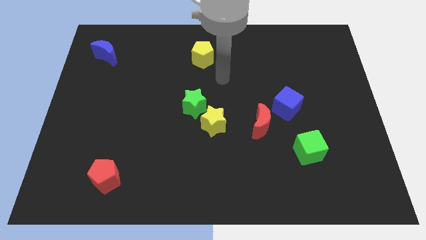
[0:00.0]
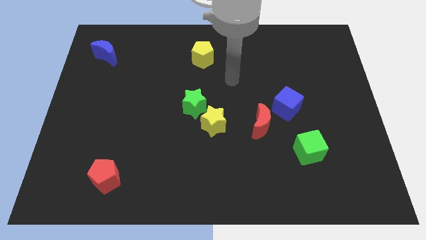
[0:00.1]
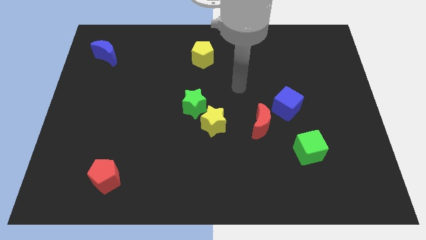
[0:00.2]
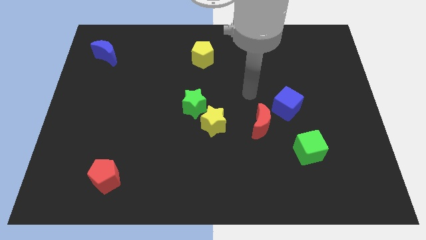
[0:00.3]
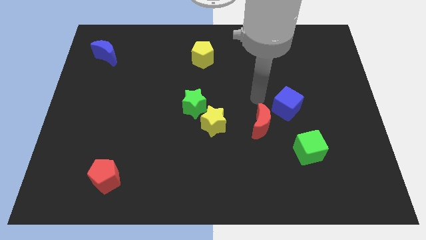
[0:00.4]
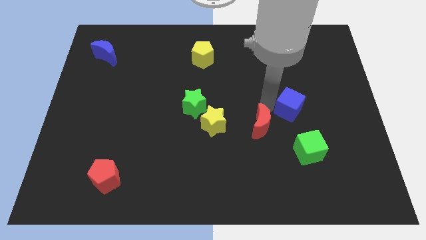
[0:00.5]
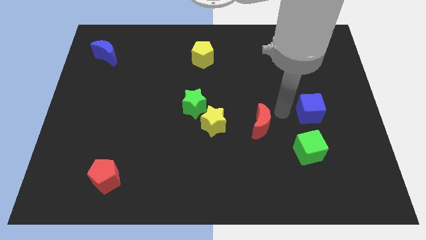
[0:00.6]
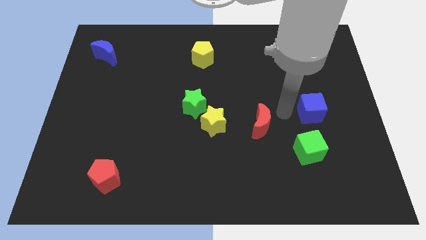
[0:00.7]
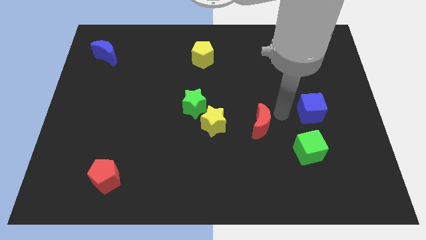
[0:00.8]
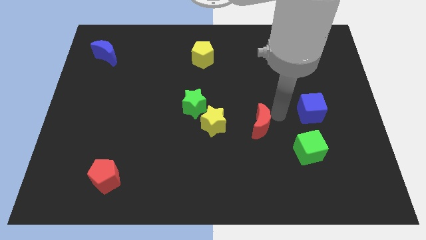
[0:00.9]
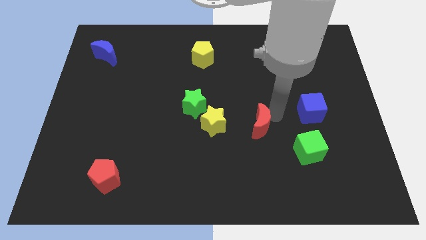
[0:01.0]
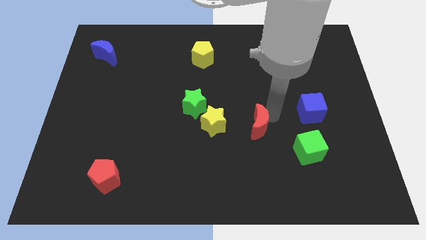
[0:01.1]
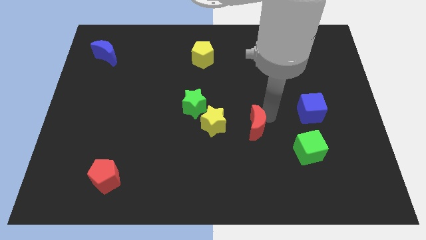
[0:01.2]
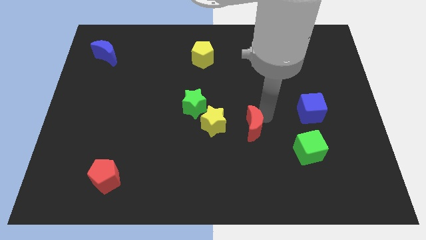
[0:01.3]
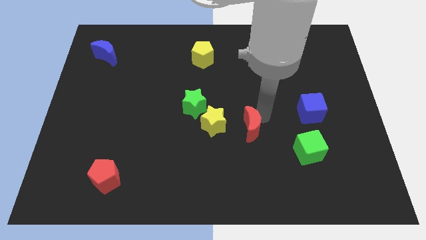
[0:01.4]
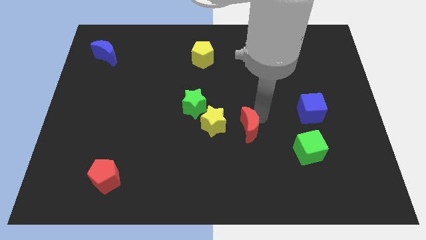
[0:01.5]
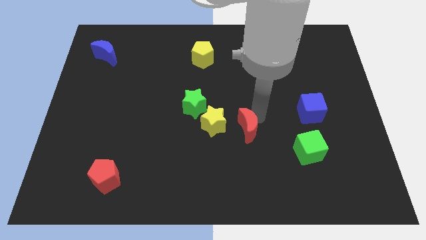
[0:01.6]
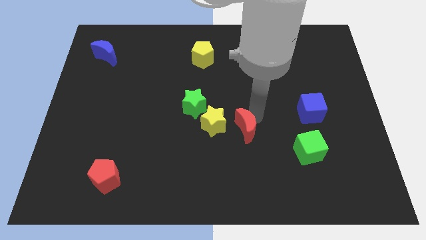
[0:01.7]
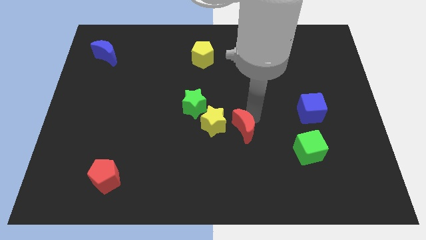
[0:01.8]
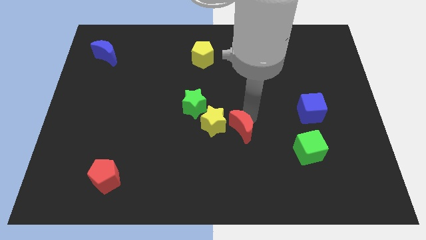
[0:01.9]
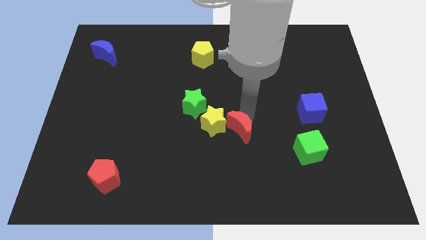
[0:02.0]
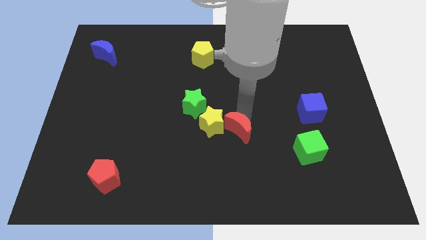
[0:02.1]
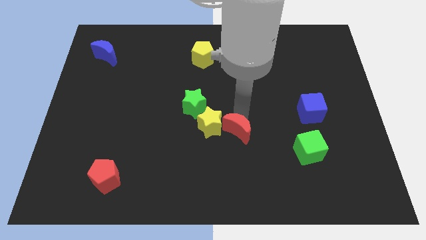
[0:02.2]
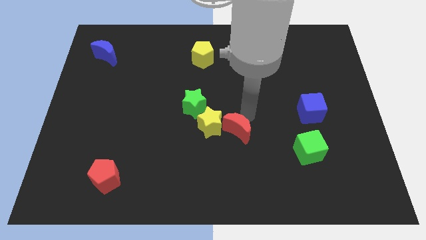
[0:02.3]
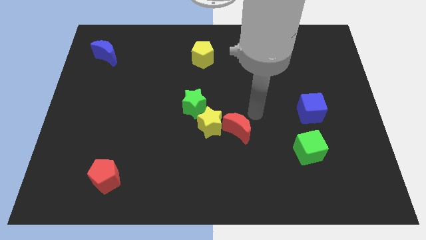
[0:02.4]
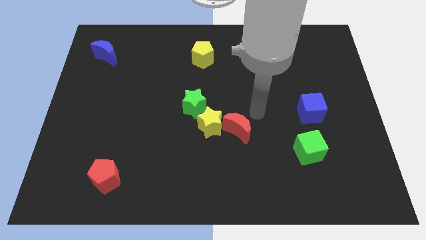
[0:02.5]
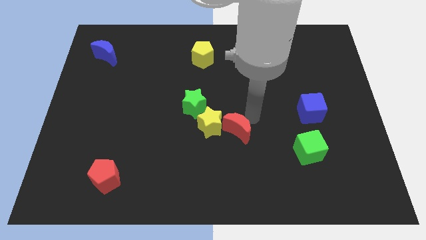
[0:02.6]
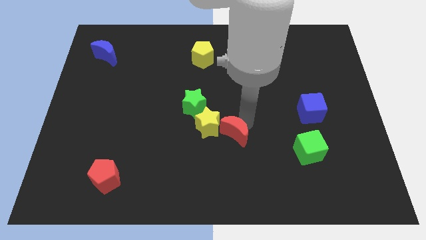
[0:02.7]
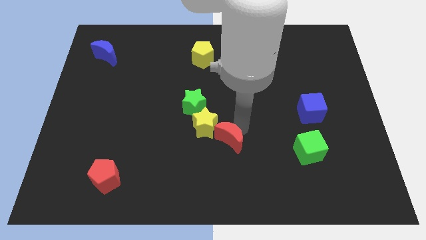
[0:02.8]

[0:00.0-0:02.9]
slide the red moon downwards and then left a little

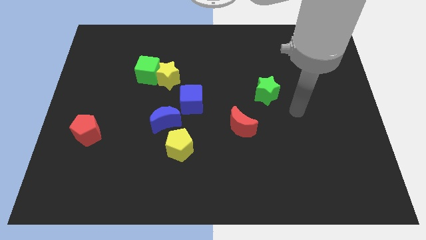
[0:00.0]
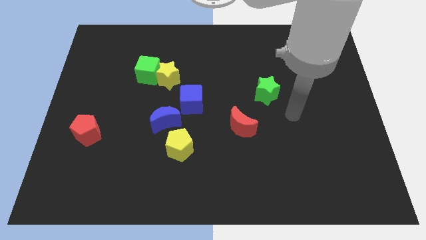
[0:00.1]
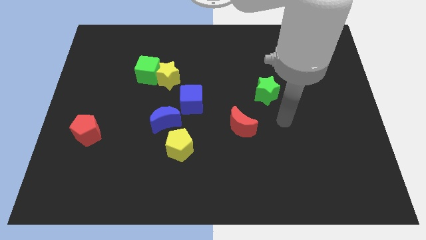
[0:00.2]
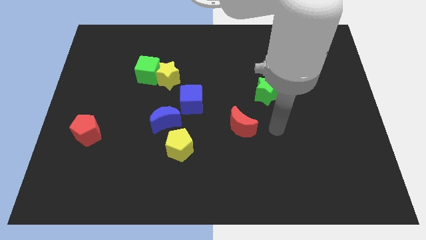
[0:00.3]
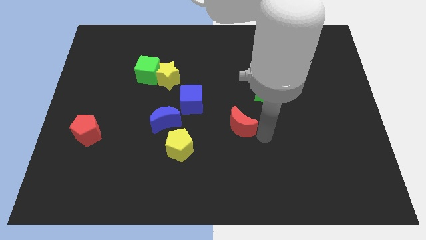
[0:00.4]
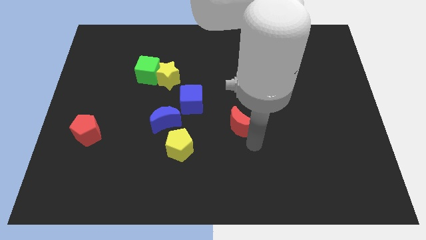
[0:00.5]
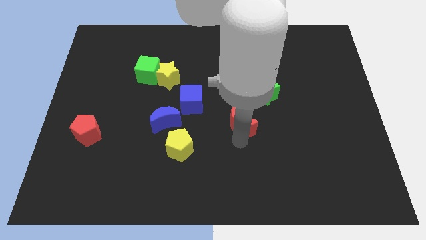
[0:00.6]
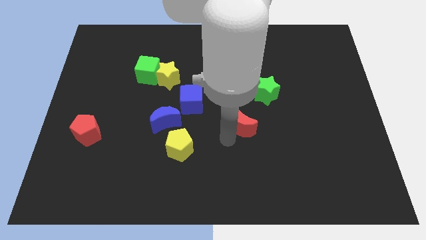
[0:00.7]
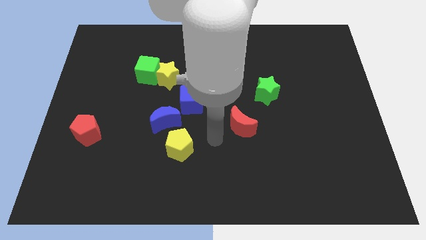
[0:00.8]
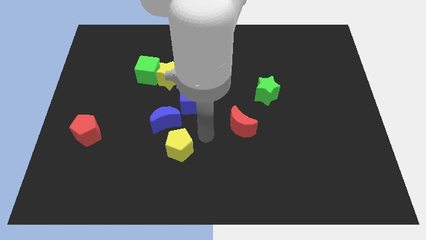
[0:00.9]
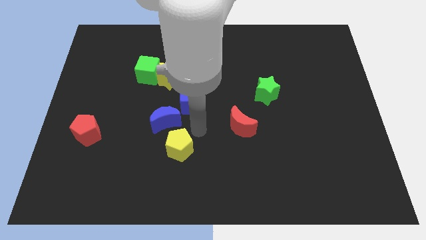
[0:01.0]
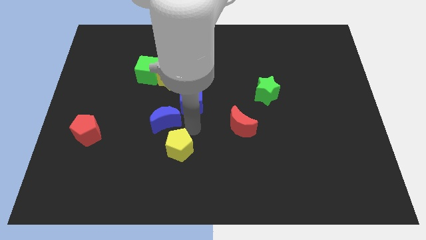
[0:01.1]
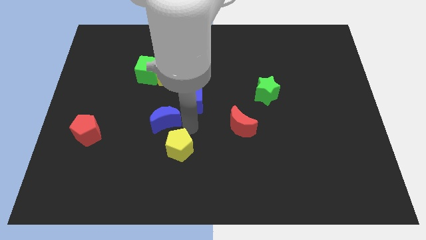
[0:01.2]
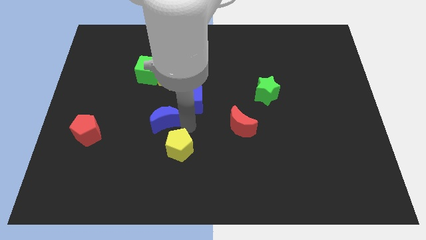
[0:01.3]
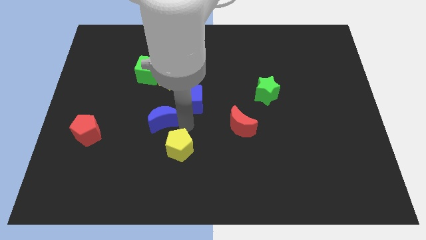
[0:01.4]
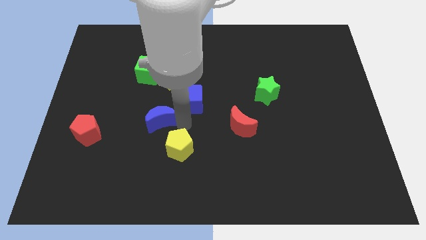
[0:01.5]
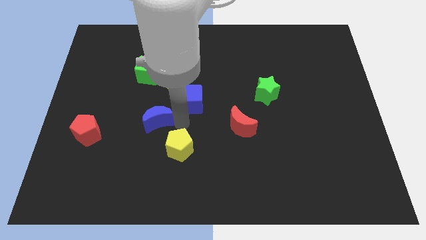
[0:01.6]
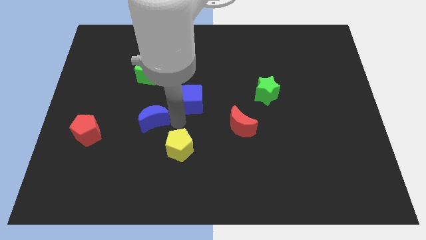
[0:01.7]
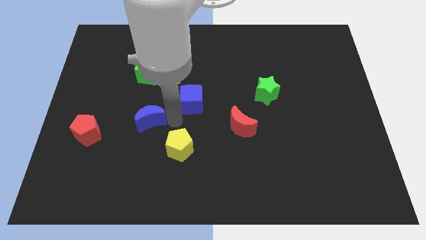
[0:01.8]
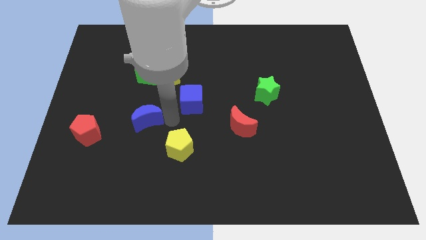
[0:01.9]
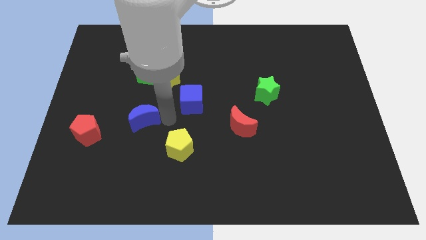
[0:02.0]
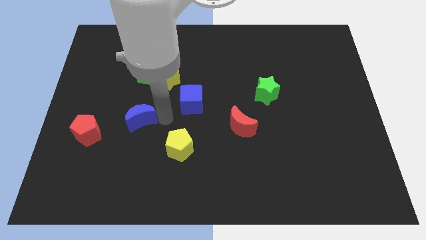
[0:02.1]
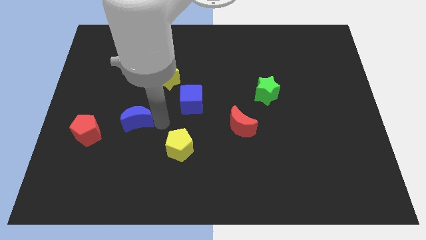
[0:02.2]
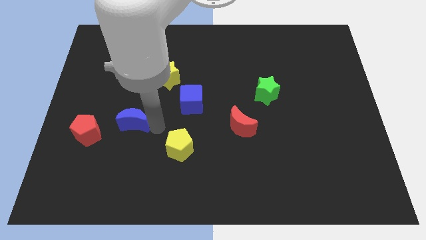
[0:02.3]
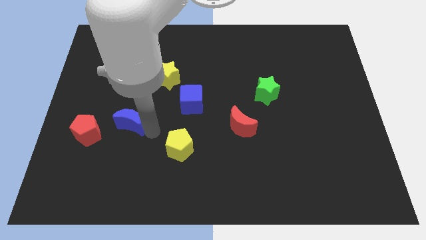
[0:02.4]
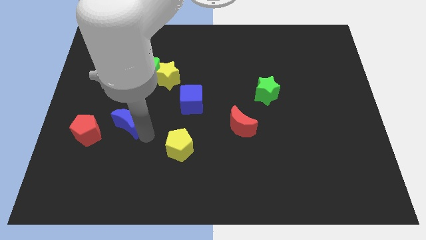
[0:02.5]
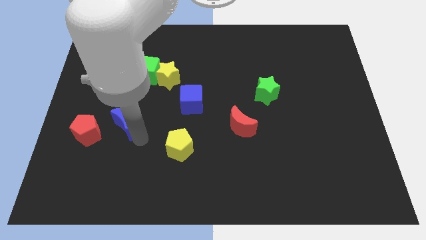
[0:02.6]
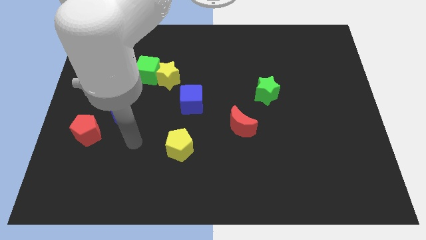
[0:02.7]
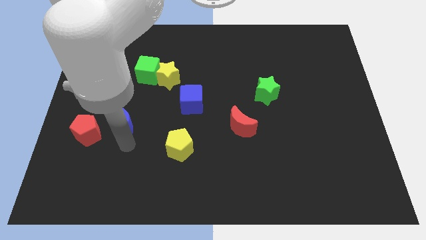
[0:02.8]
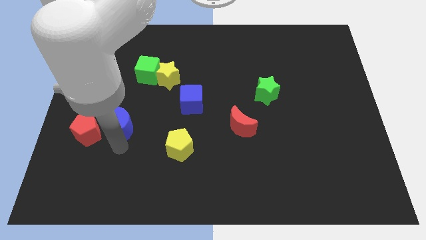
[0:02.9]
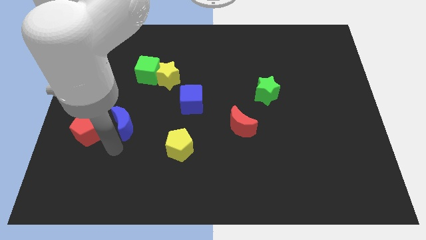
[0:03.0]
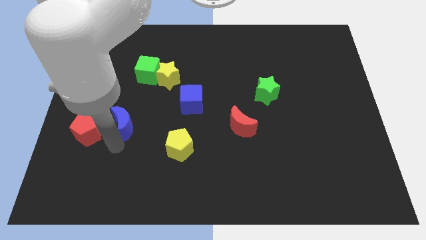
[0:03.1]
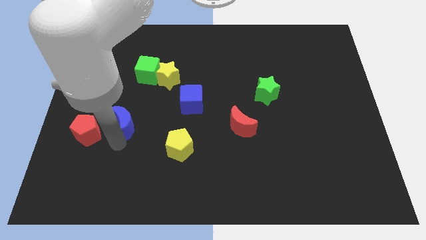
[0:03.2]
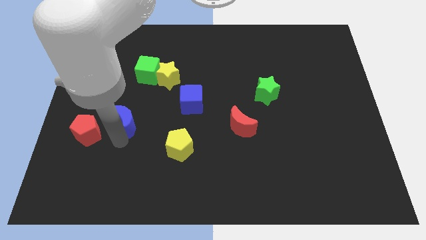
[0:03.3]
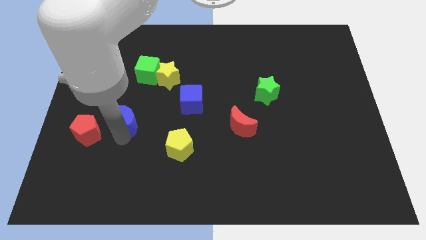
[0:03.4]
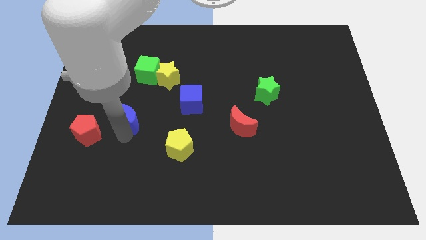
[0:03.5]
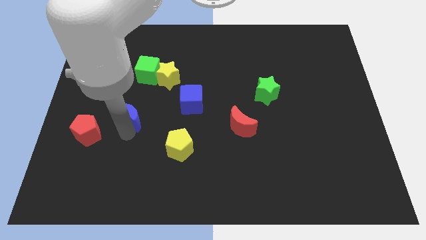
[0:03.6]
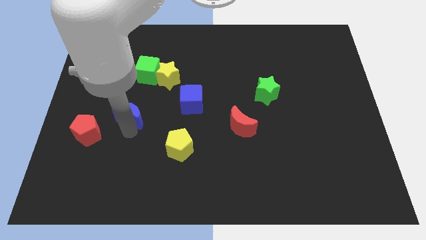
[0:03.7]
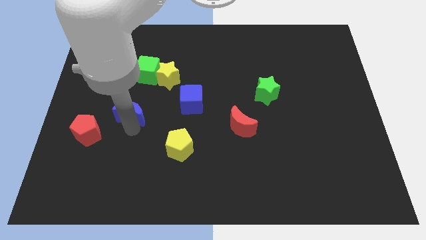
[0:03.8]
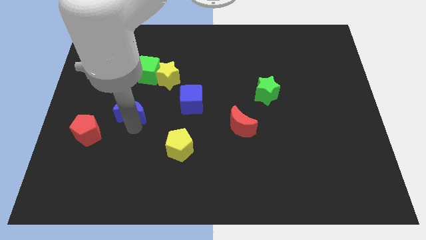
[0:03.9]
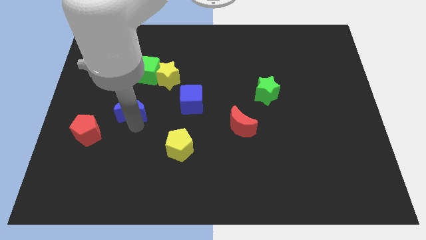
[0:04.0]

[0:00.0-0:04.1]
slightly push the blue moon upwards and to the left diagonally

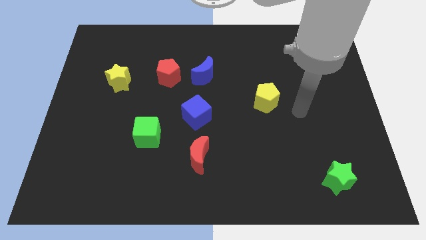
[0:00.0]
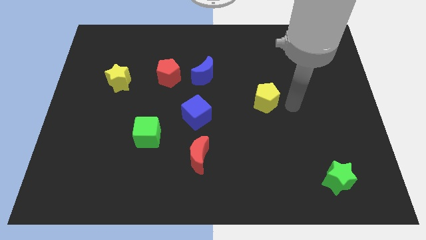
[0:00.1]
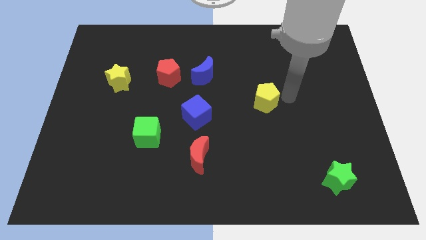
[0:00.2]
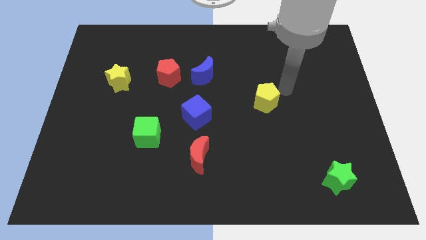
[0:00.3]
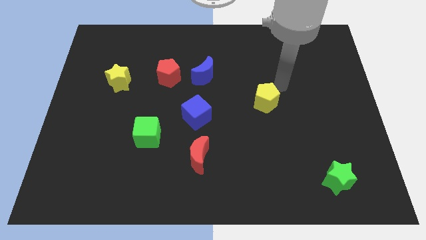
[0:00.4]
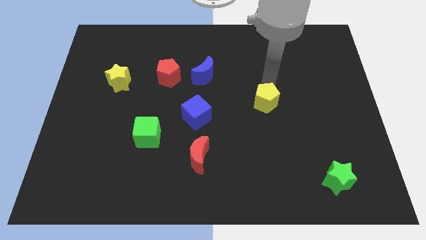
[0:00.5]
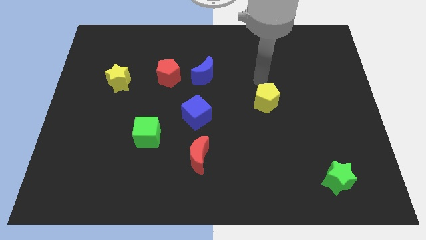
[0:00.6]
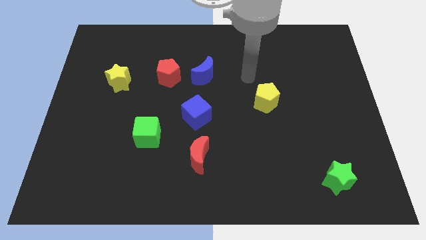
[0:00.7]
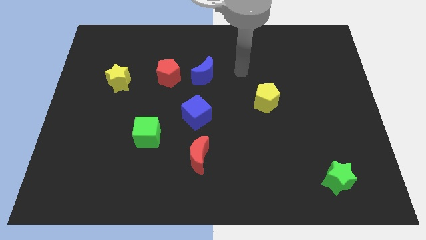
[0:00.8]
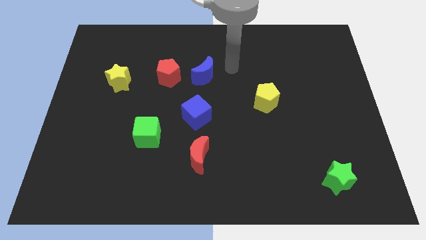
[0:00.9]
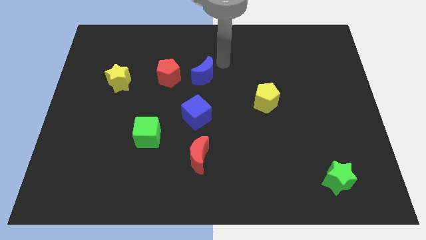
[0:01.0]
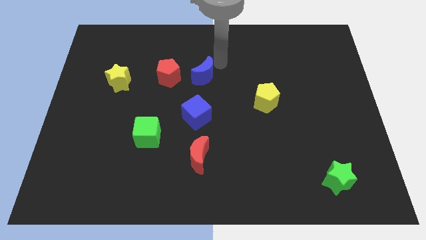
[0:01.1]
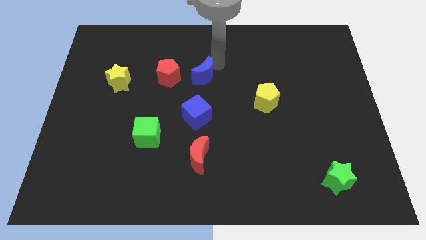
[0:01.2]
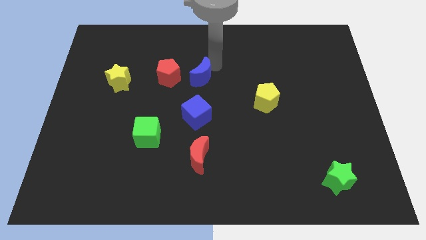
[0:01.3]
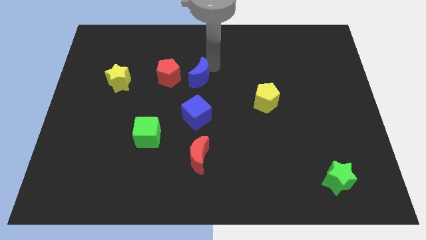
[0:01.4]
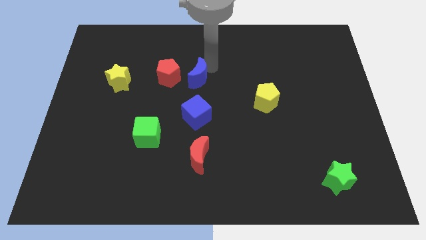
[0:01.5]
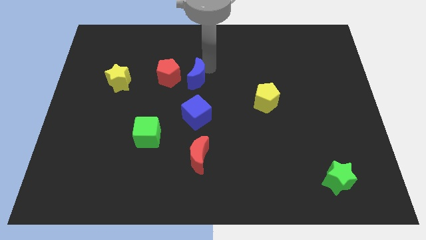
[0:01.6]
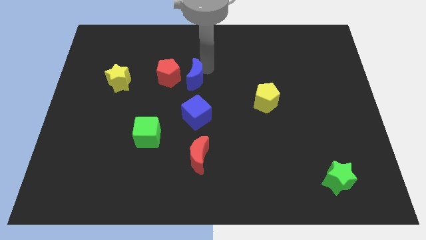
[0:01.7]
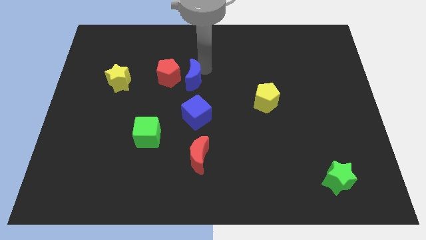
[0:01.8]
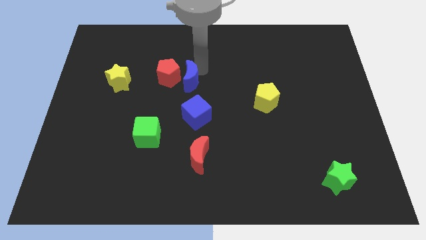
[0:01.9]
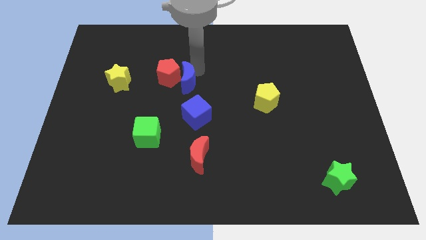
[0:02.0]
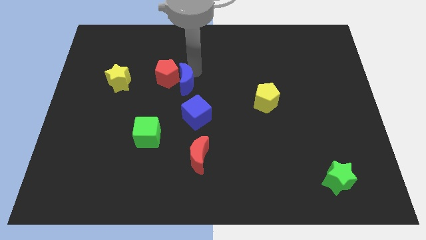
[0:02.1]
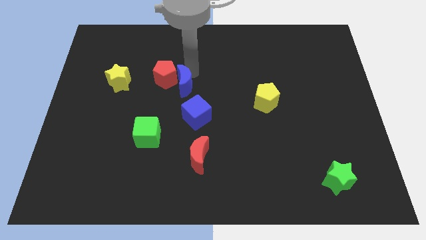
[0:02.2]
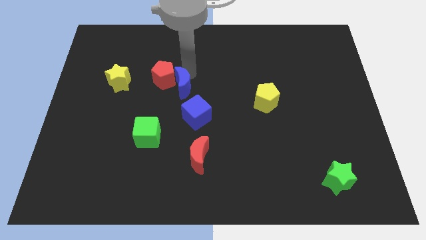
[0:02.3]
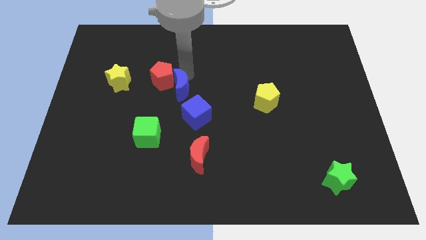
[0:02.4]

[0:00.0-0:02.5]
move the blue moon slightly down and then to the left
